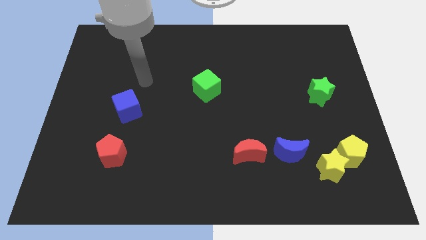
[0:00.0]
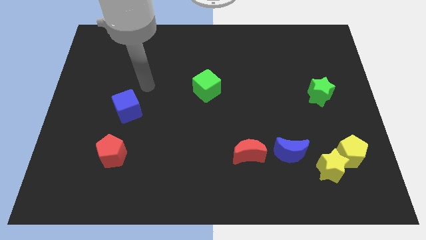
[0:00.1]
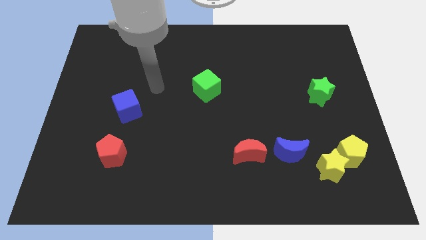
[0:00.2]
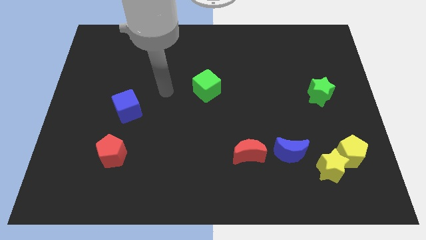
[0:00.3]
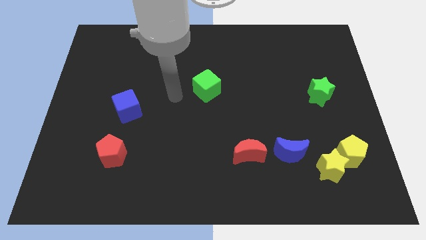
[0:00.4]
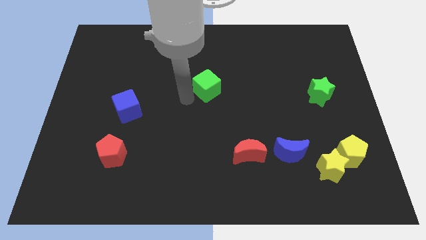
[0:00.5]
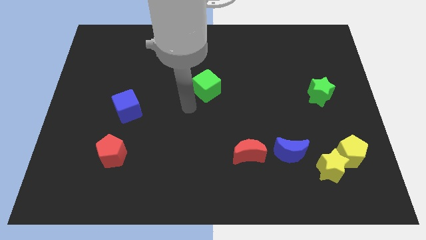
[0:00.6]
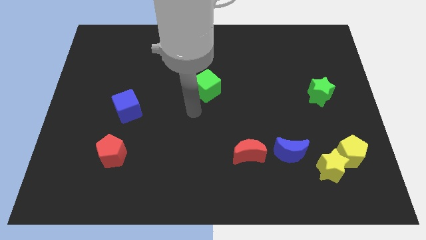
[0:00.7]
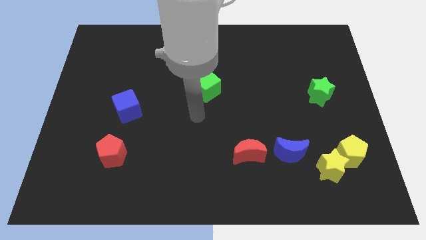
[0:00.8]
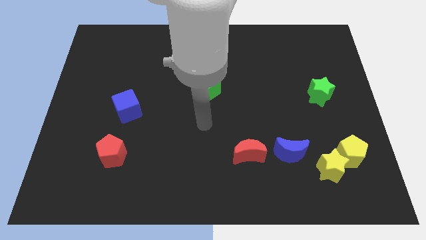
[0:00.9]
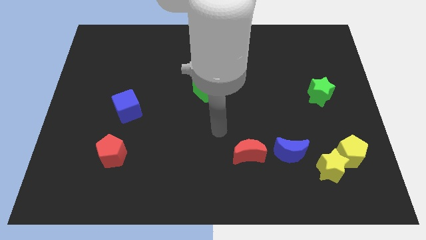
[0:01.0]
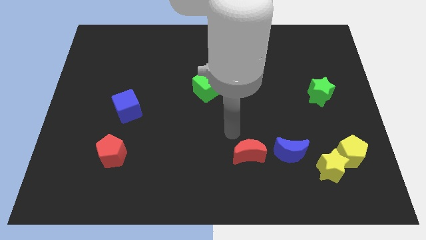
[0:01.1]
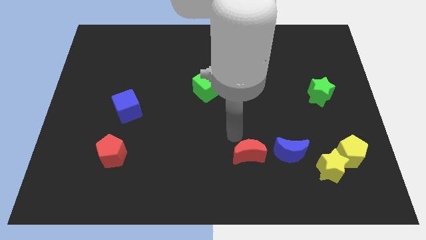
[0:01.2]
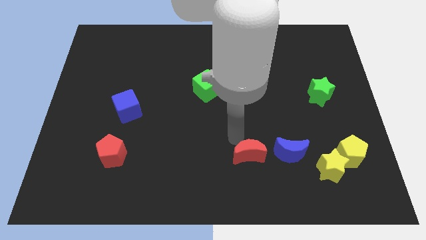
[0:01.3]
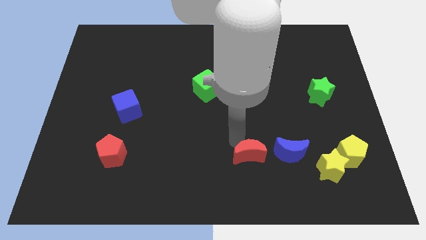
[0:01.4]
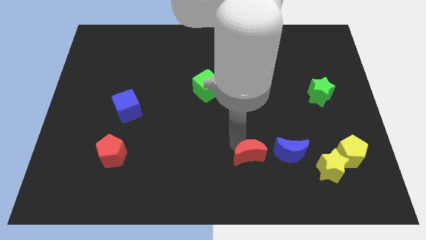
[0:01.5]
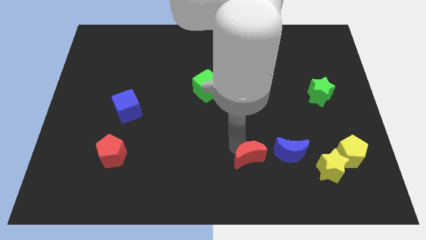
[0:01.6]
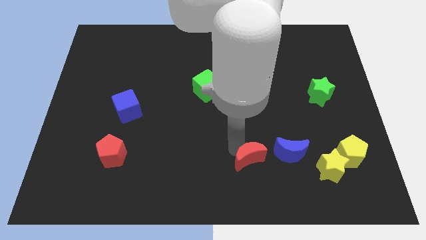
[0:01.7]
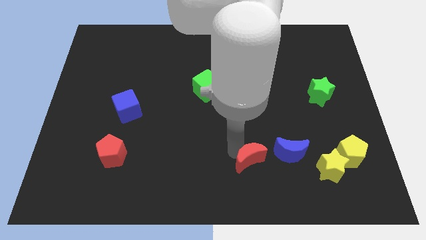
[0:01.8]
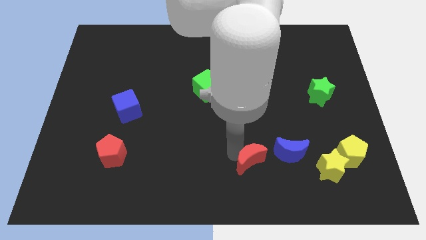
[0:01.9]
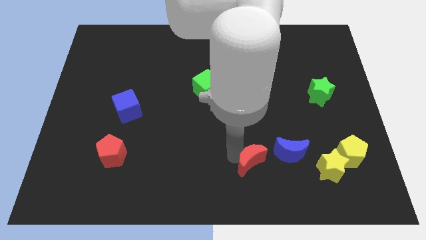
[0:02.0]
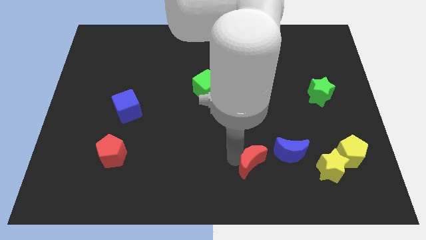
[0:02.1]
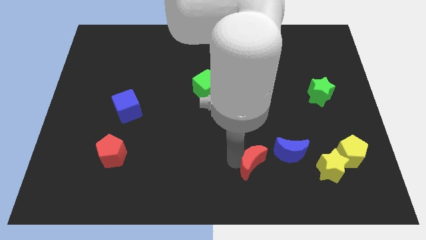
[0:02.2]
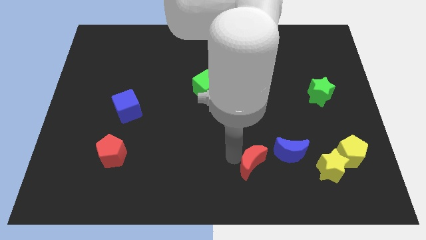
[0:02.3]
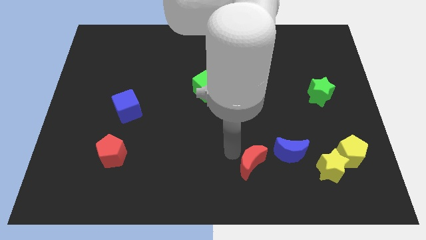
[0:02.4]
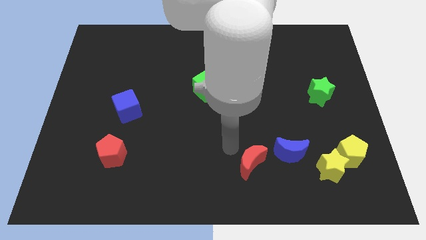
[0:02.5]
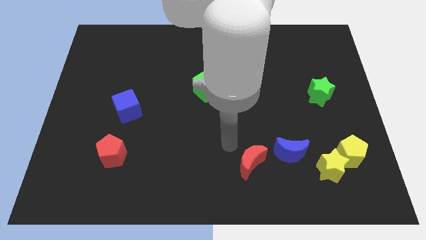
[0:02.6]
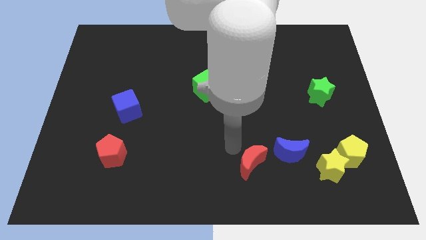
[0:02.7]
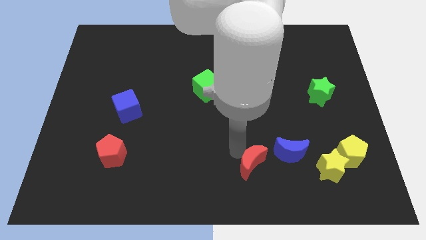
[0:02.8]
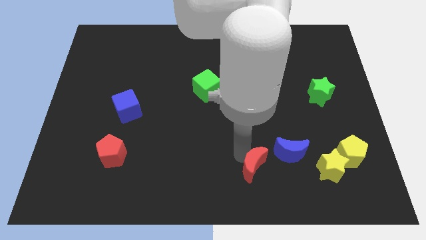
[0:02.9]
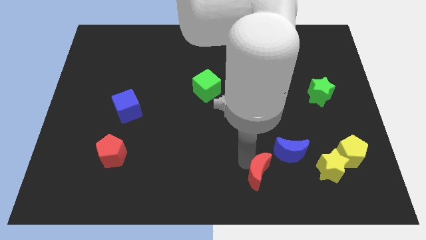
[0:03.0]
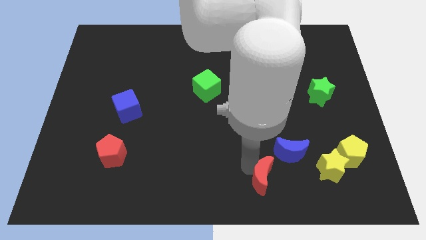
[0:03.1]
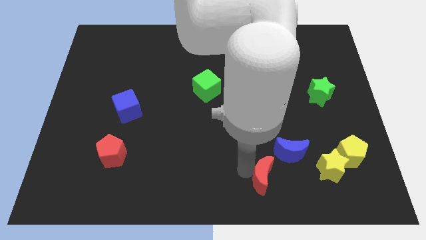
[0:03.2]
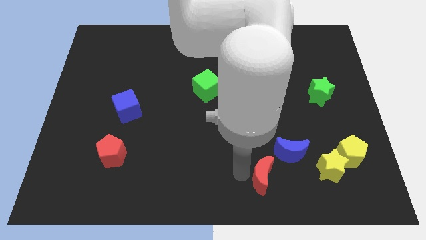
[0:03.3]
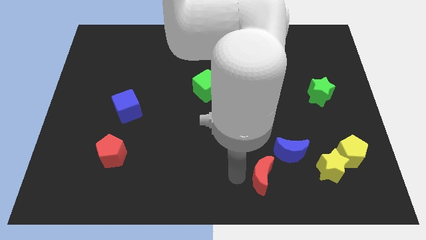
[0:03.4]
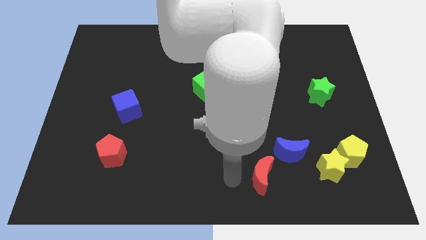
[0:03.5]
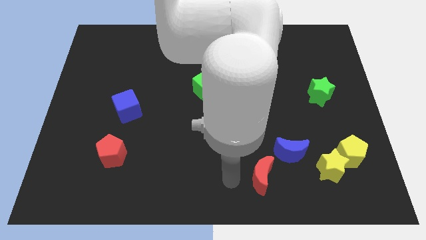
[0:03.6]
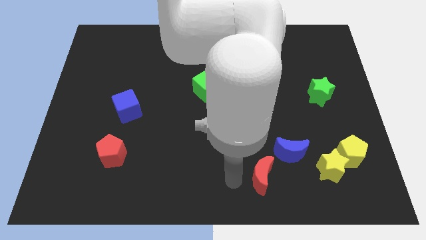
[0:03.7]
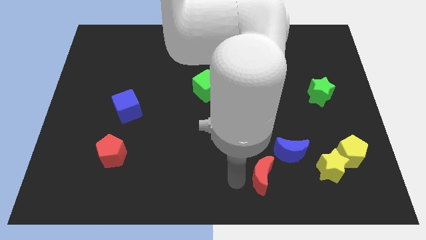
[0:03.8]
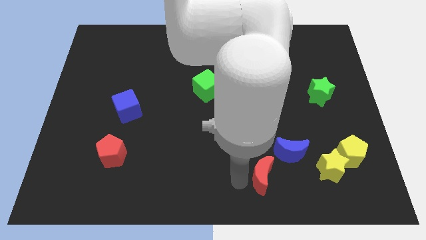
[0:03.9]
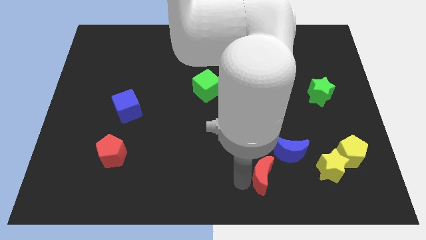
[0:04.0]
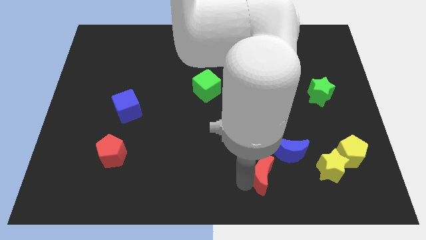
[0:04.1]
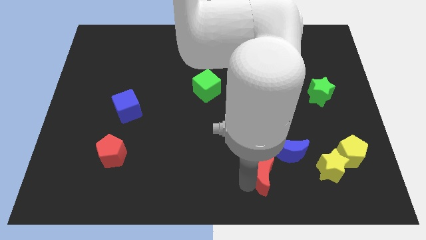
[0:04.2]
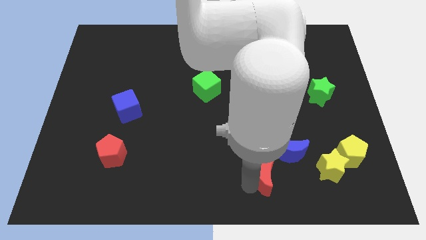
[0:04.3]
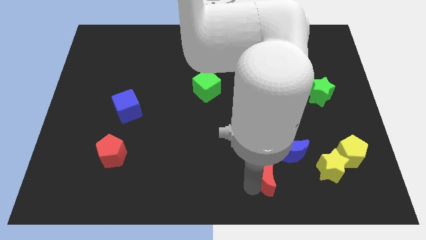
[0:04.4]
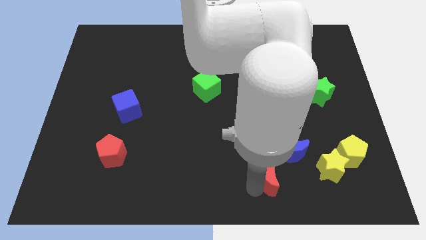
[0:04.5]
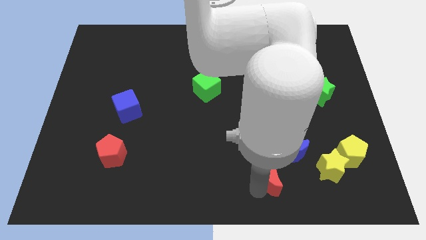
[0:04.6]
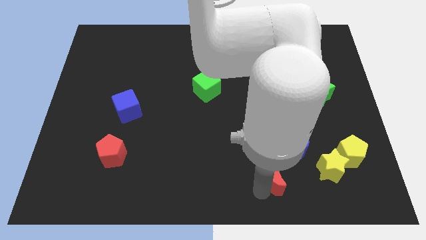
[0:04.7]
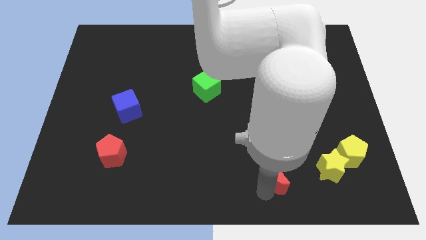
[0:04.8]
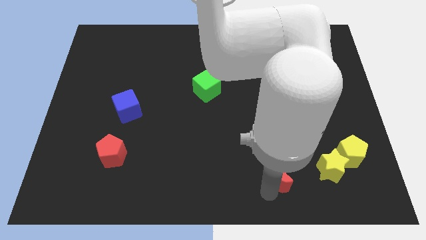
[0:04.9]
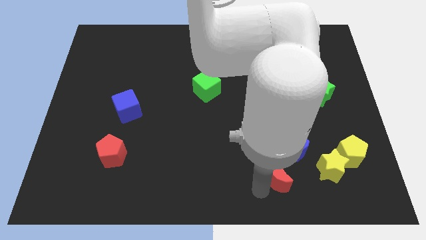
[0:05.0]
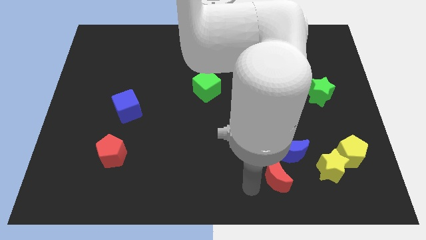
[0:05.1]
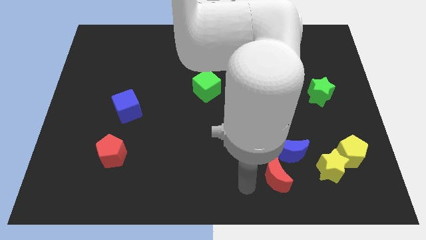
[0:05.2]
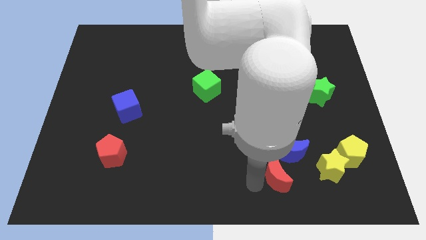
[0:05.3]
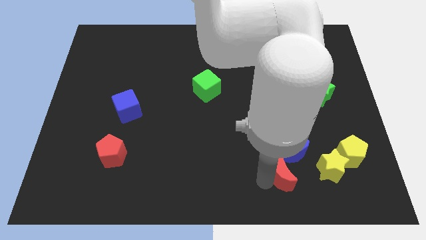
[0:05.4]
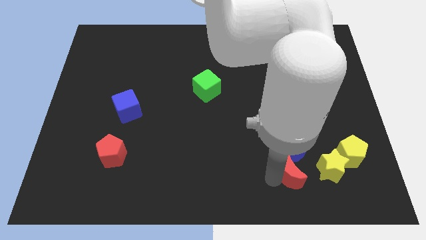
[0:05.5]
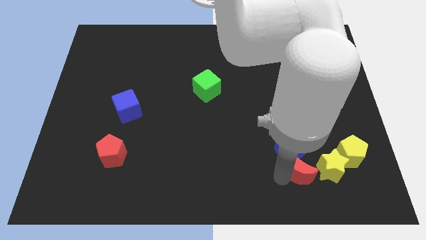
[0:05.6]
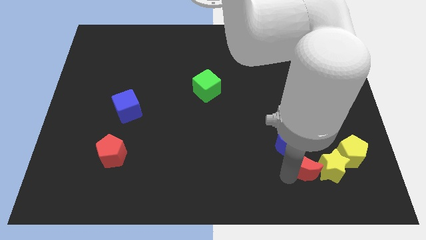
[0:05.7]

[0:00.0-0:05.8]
put the red moon close to the yellow star

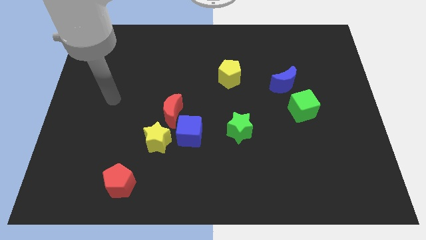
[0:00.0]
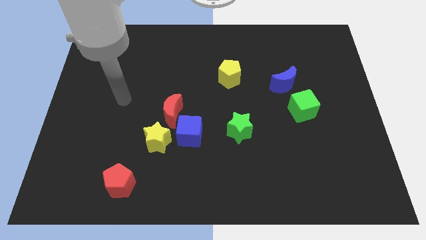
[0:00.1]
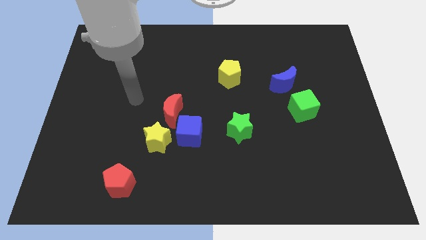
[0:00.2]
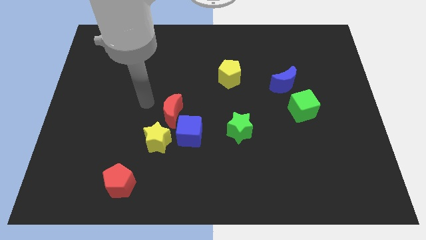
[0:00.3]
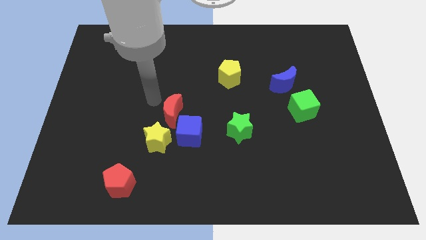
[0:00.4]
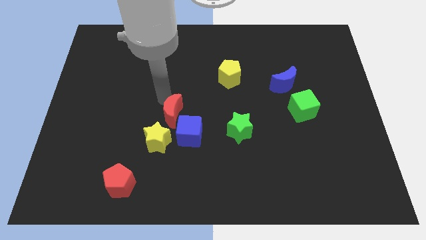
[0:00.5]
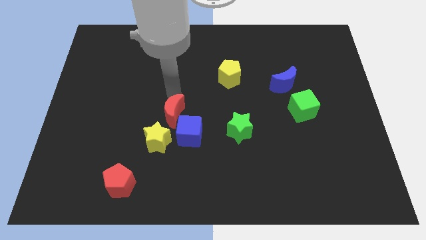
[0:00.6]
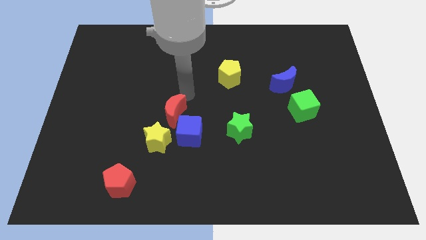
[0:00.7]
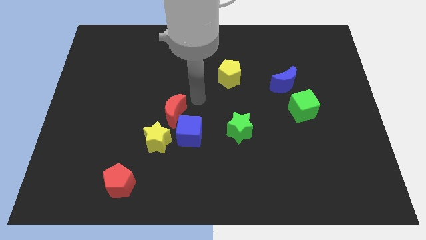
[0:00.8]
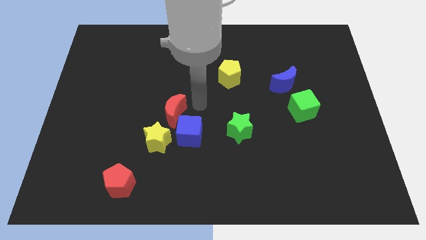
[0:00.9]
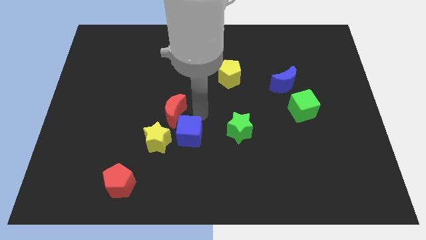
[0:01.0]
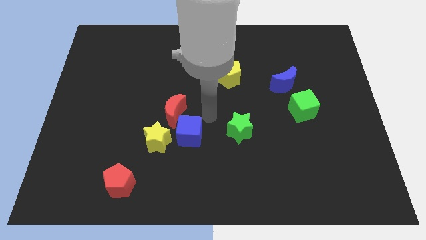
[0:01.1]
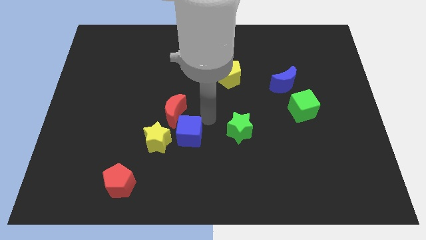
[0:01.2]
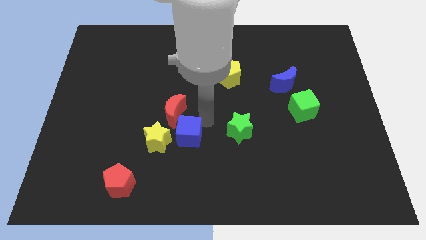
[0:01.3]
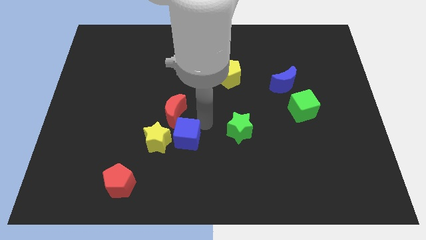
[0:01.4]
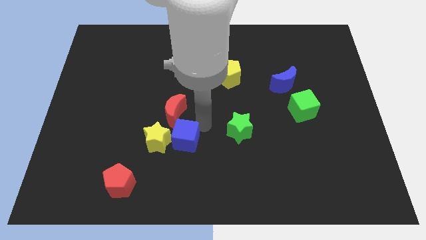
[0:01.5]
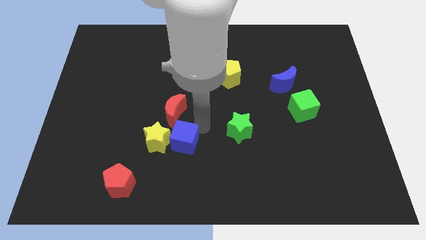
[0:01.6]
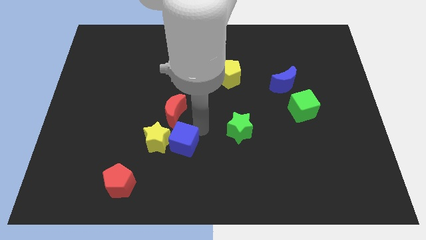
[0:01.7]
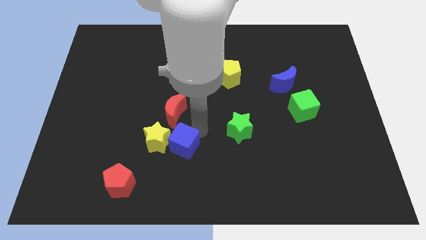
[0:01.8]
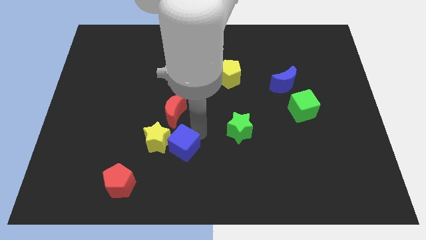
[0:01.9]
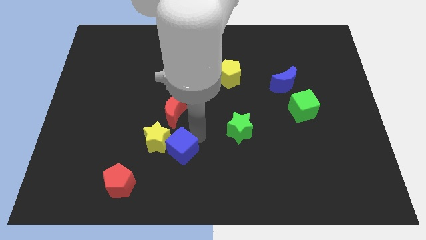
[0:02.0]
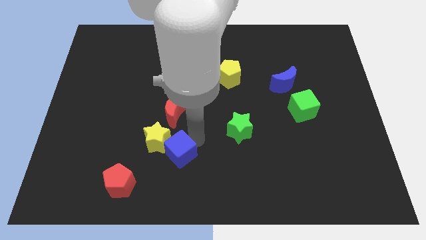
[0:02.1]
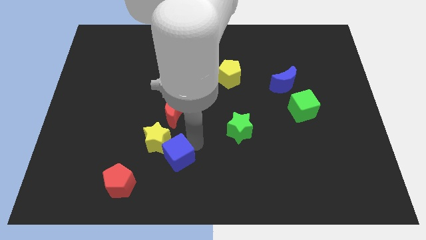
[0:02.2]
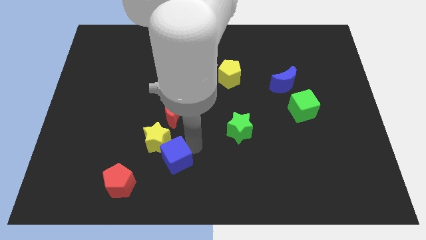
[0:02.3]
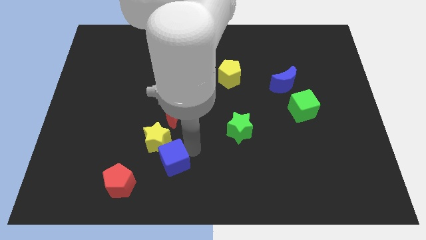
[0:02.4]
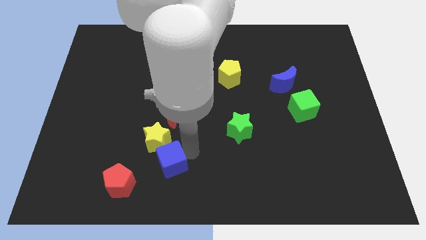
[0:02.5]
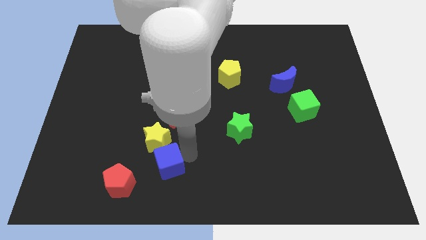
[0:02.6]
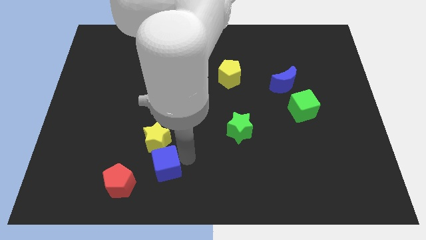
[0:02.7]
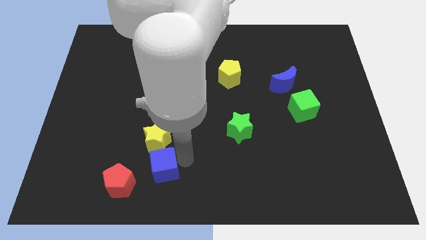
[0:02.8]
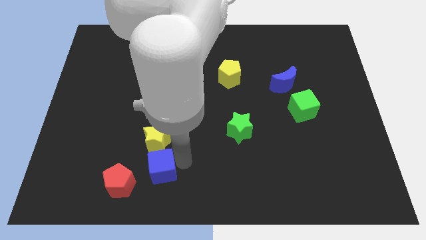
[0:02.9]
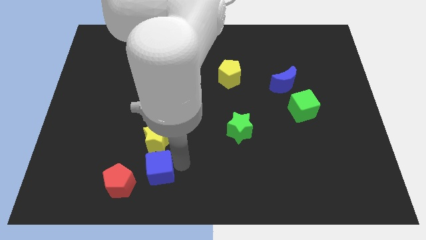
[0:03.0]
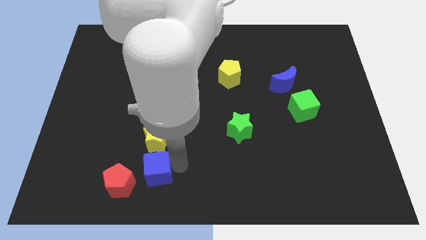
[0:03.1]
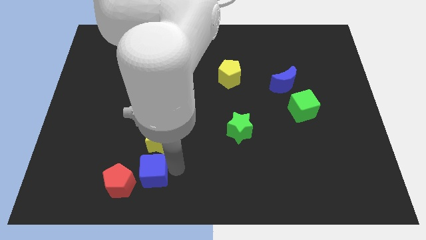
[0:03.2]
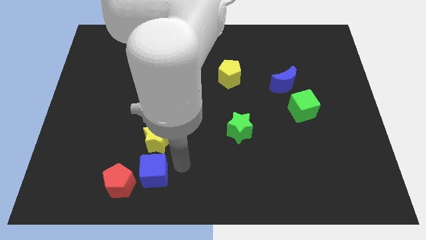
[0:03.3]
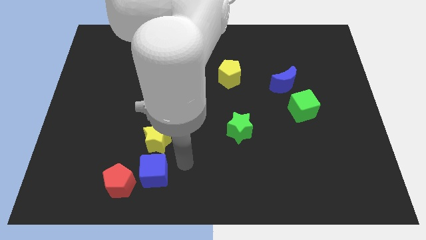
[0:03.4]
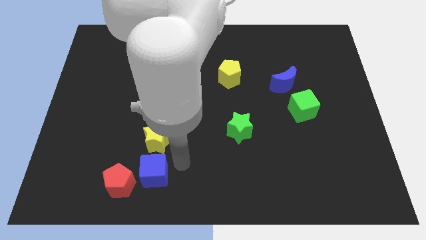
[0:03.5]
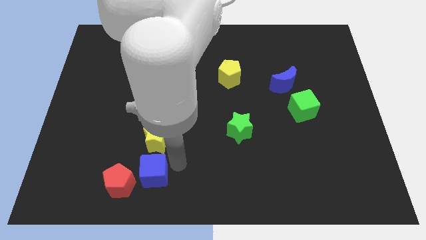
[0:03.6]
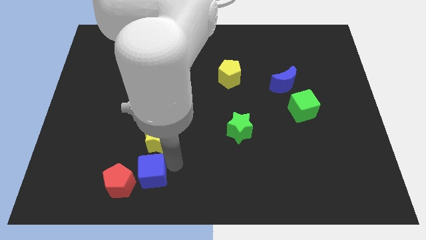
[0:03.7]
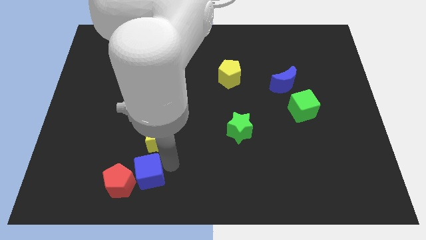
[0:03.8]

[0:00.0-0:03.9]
move the blue cube close to the red pentagon
